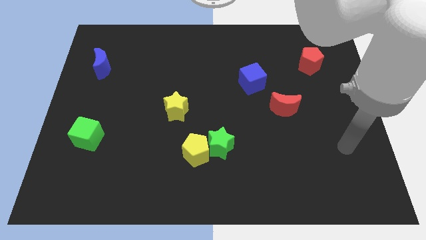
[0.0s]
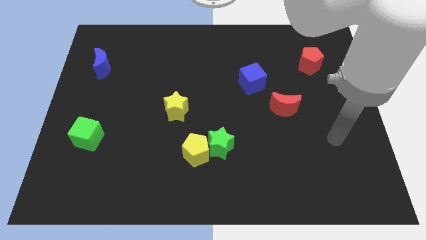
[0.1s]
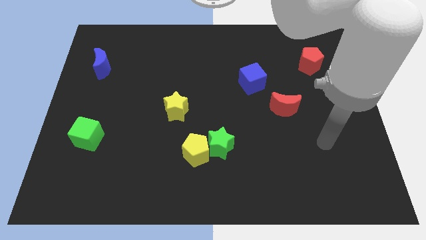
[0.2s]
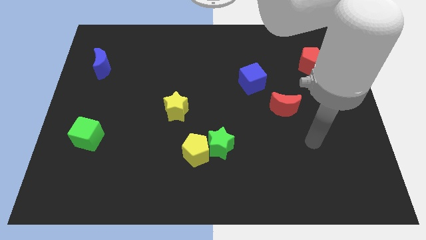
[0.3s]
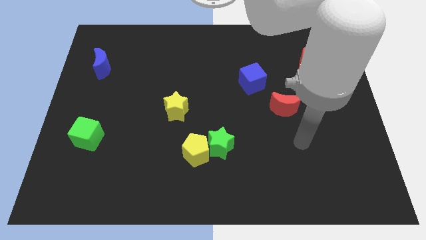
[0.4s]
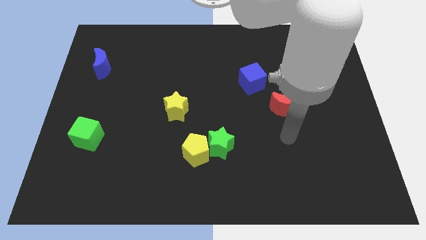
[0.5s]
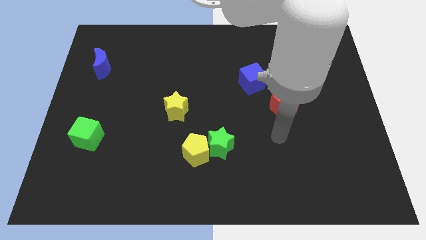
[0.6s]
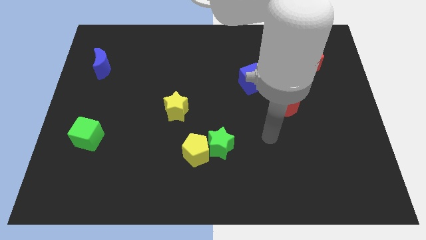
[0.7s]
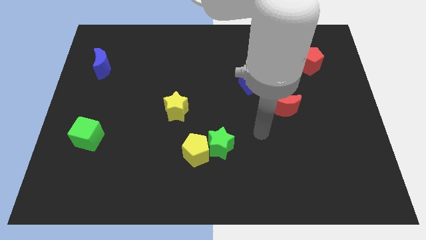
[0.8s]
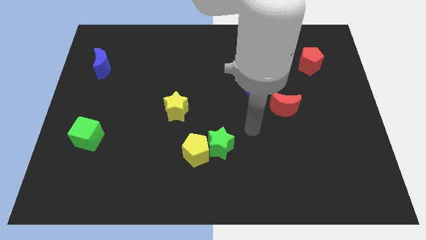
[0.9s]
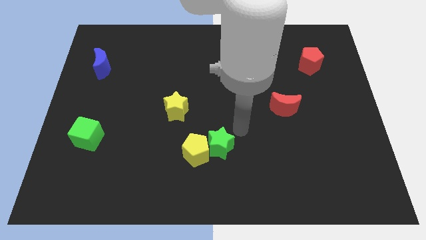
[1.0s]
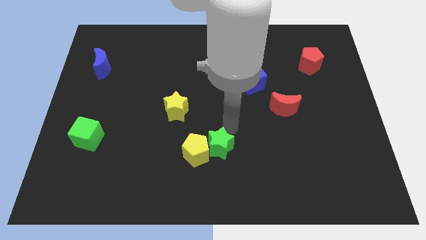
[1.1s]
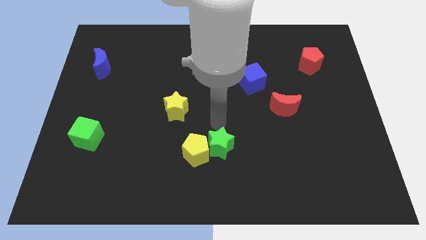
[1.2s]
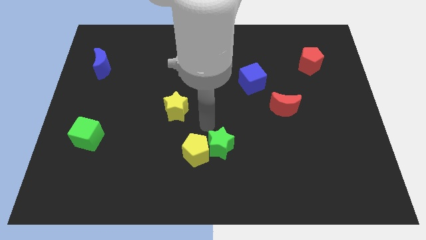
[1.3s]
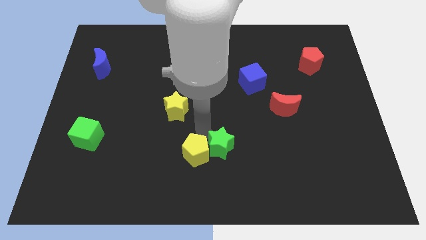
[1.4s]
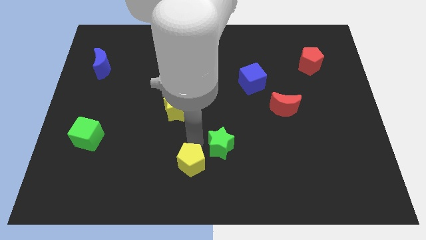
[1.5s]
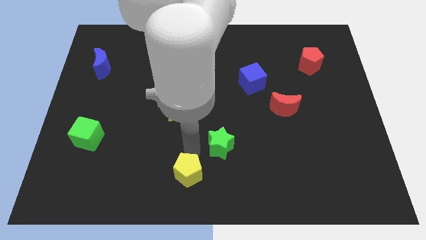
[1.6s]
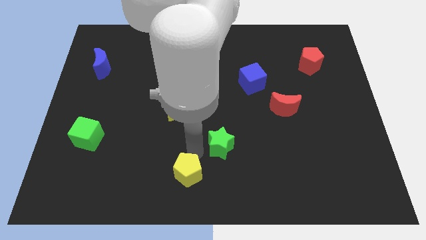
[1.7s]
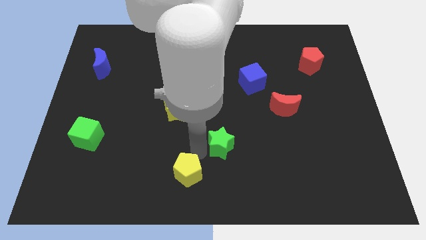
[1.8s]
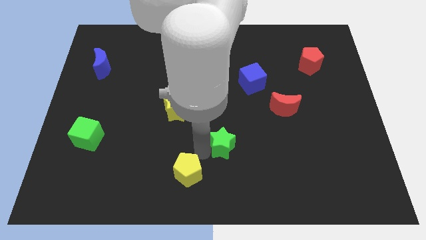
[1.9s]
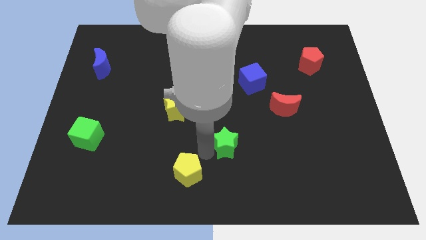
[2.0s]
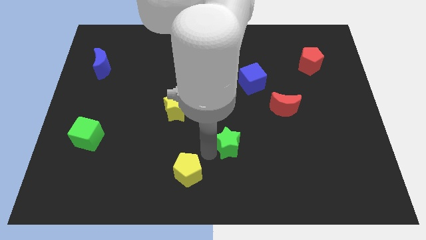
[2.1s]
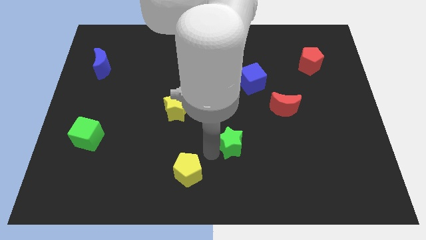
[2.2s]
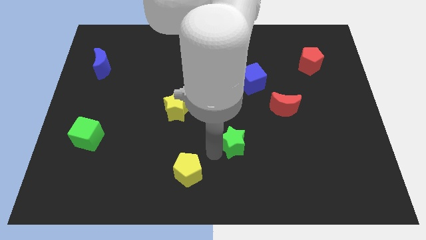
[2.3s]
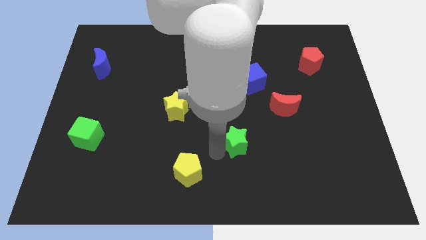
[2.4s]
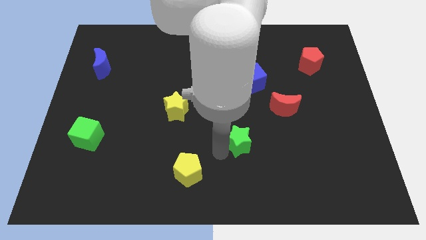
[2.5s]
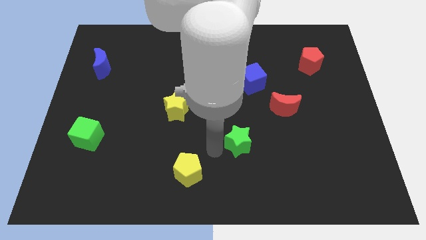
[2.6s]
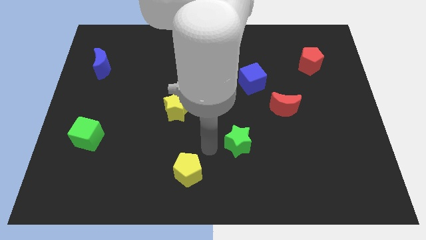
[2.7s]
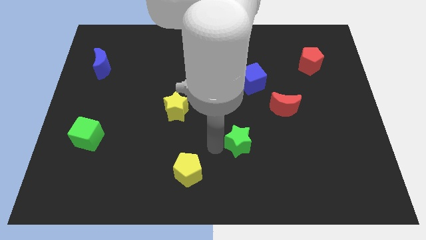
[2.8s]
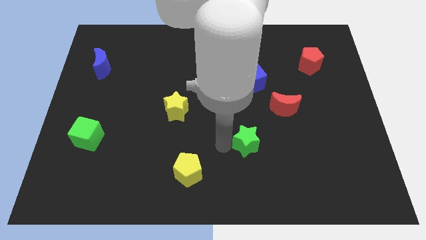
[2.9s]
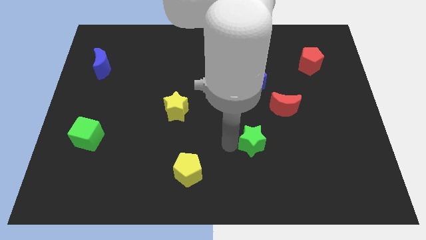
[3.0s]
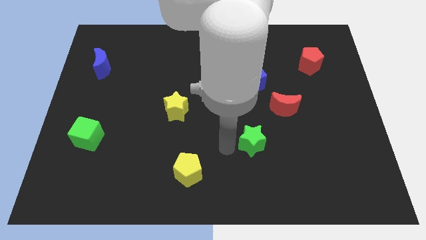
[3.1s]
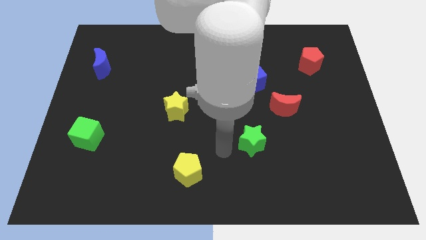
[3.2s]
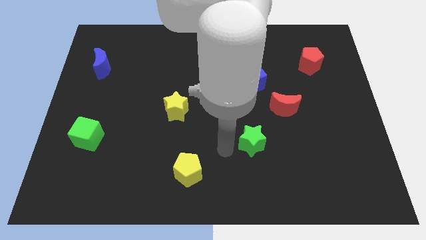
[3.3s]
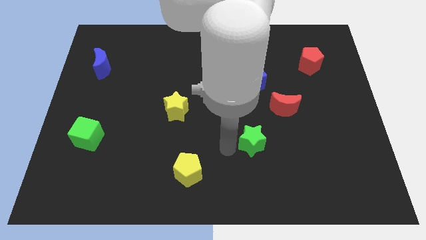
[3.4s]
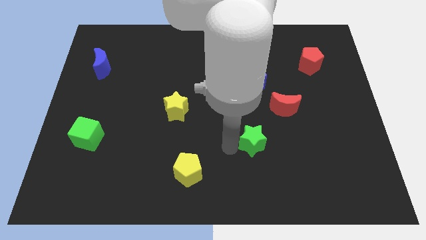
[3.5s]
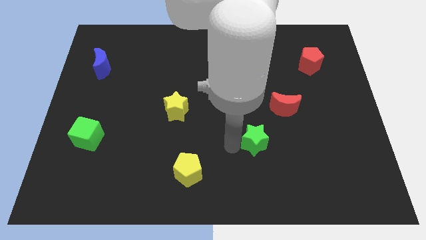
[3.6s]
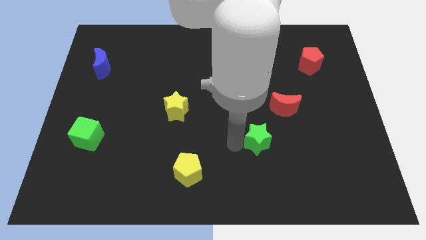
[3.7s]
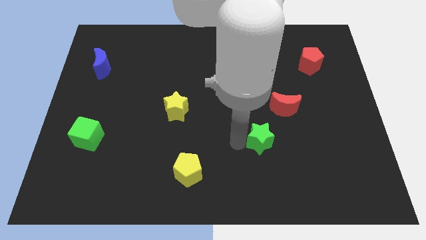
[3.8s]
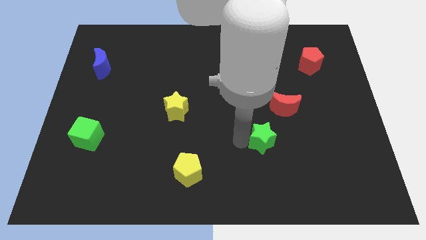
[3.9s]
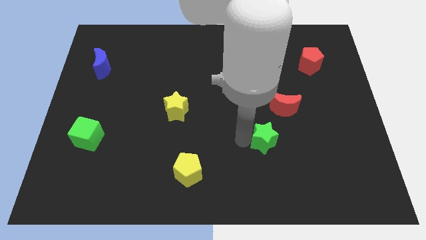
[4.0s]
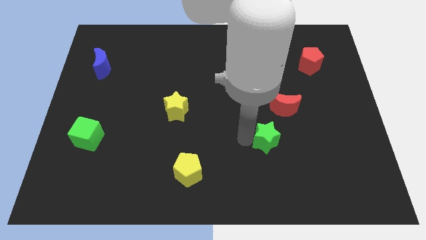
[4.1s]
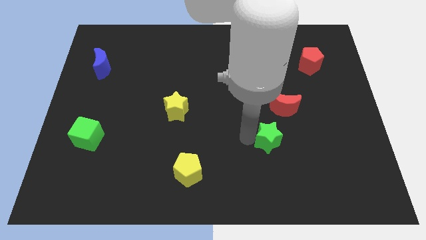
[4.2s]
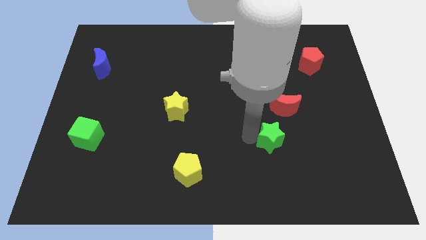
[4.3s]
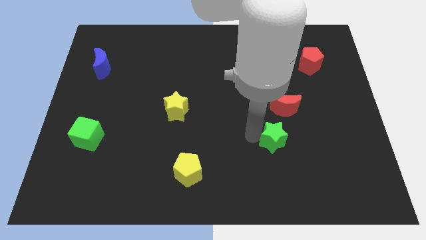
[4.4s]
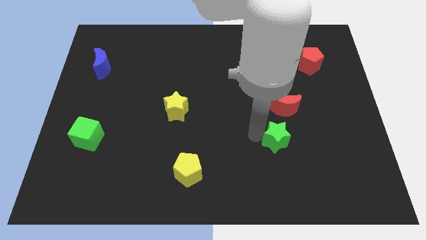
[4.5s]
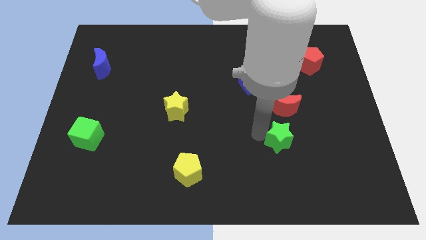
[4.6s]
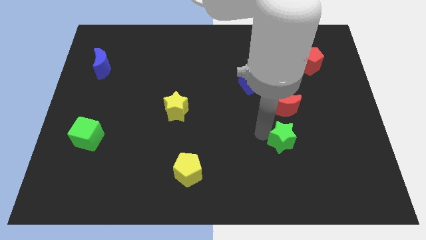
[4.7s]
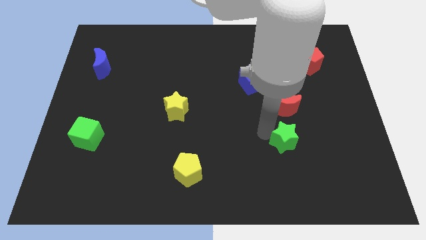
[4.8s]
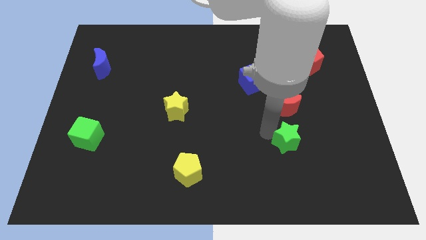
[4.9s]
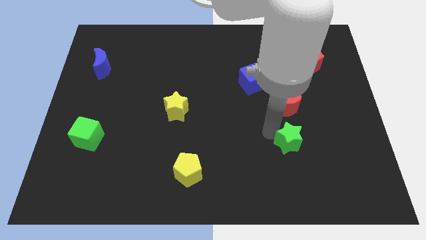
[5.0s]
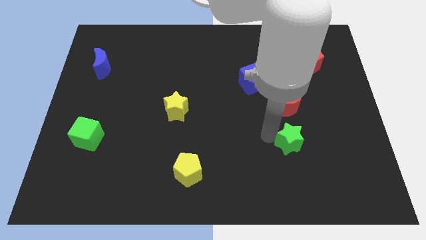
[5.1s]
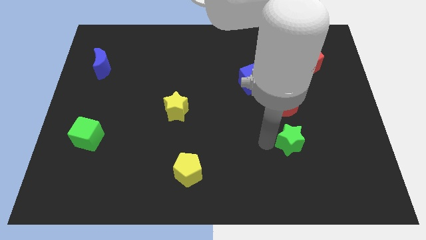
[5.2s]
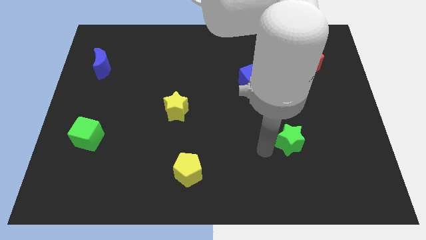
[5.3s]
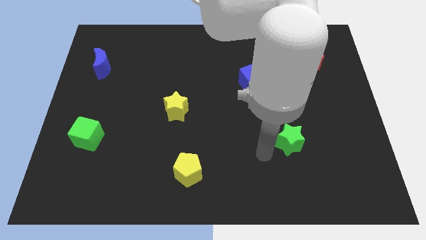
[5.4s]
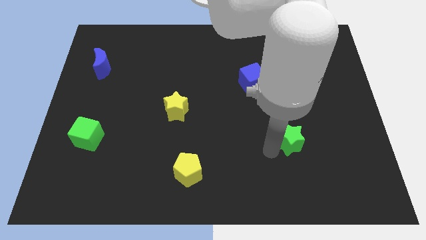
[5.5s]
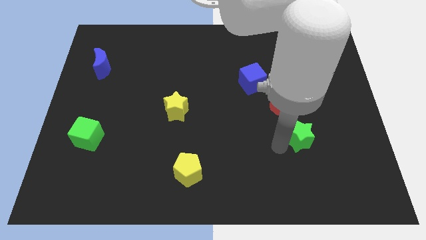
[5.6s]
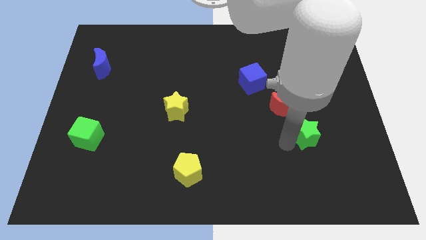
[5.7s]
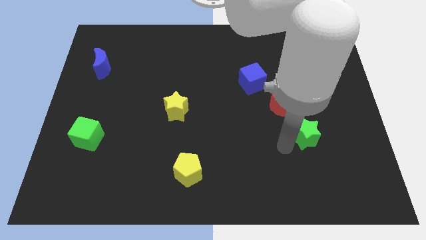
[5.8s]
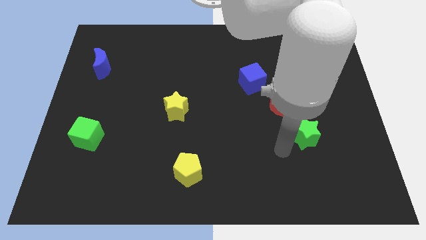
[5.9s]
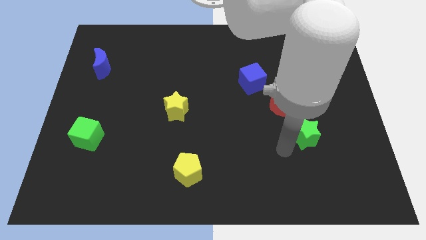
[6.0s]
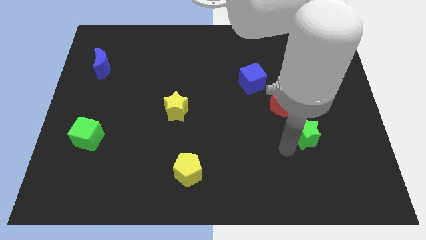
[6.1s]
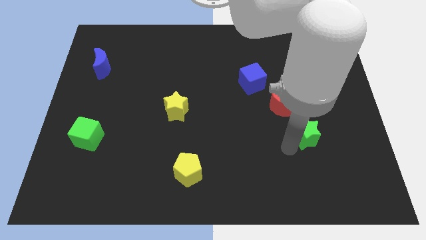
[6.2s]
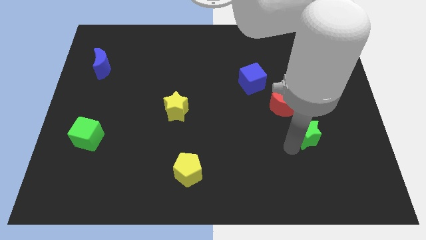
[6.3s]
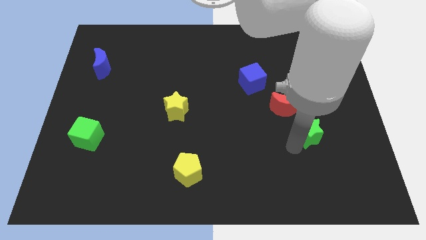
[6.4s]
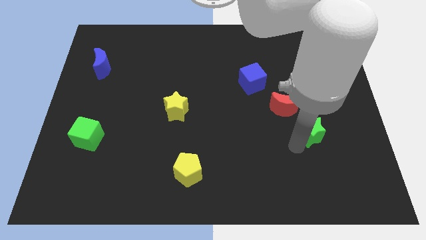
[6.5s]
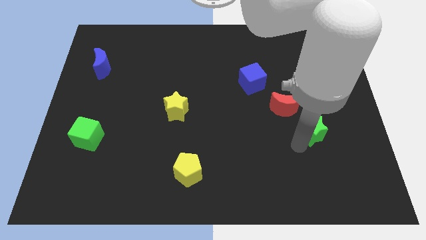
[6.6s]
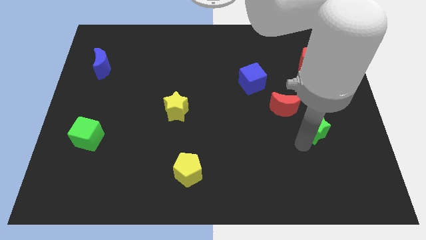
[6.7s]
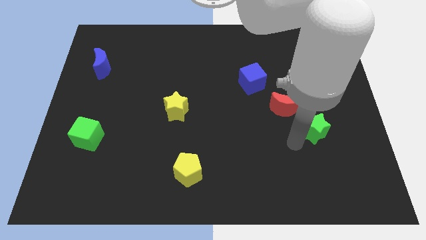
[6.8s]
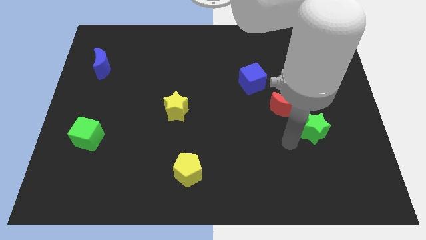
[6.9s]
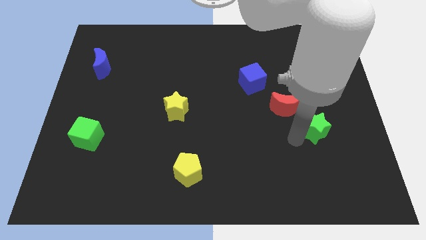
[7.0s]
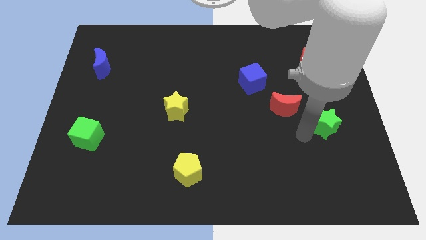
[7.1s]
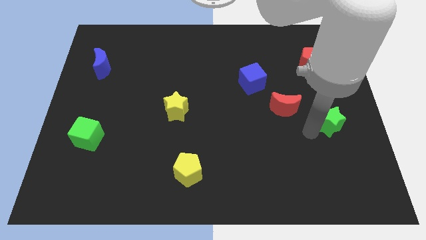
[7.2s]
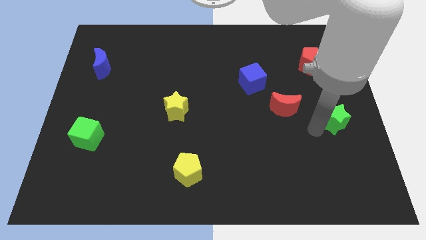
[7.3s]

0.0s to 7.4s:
push the green star to the right side of the board
